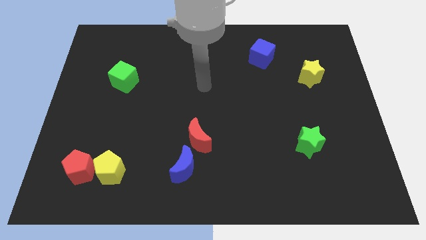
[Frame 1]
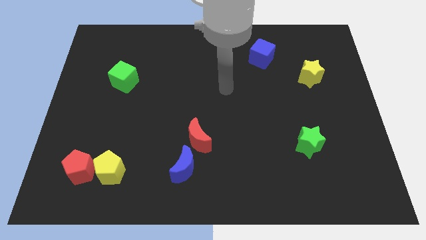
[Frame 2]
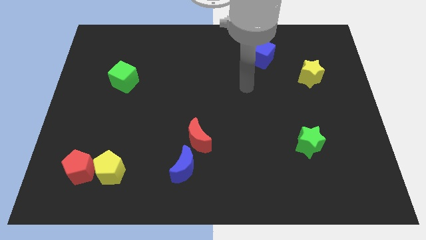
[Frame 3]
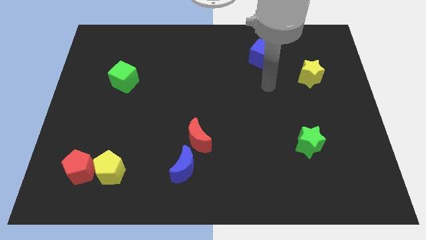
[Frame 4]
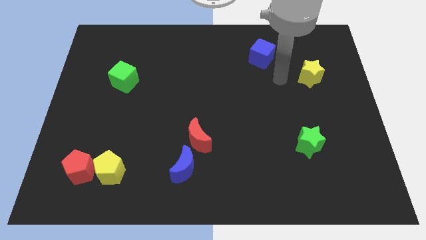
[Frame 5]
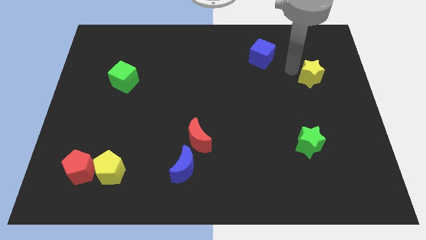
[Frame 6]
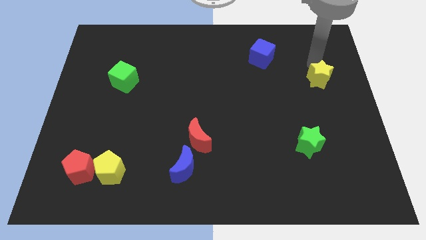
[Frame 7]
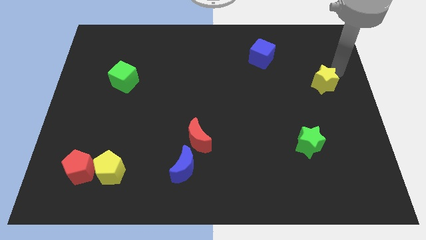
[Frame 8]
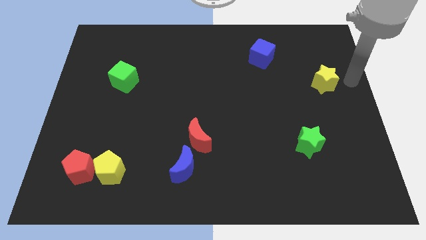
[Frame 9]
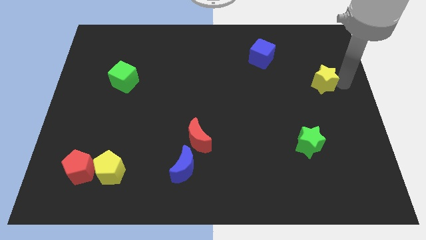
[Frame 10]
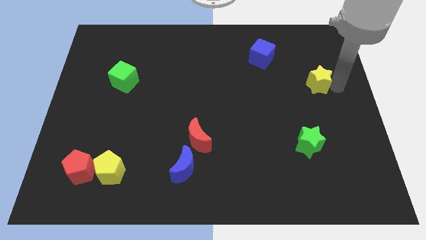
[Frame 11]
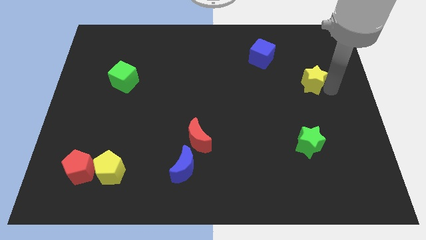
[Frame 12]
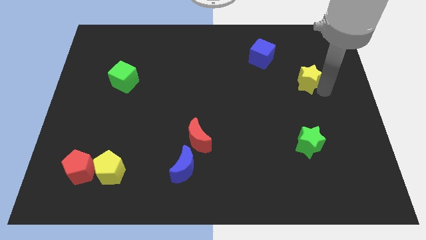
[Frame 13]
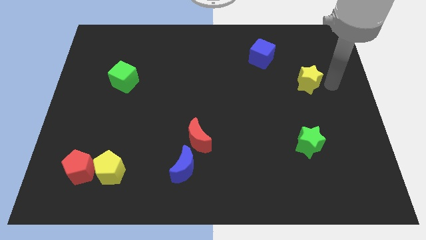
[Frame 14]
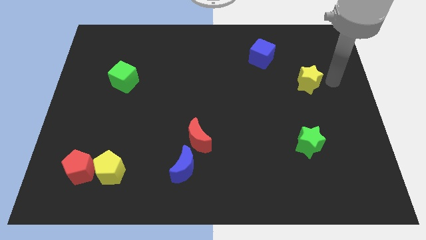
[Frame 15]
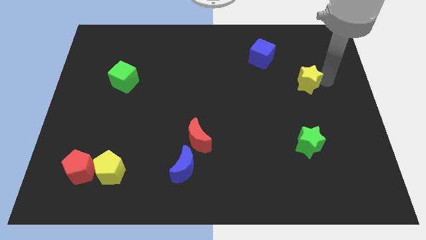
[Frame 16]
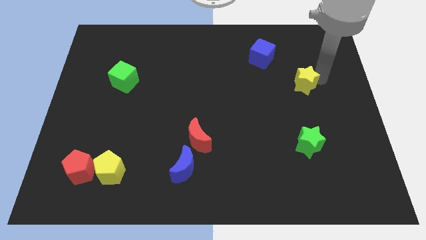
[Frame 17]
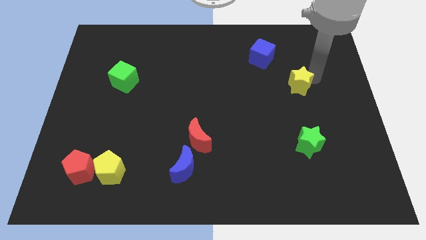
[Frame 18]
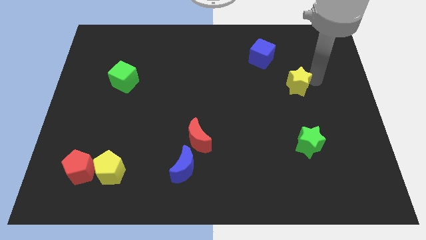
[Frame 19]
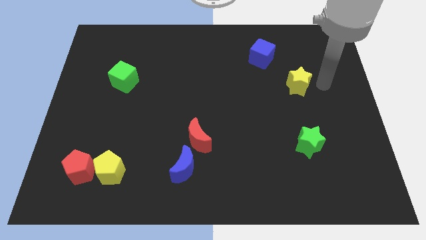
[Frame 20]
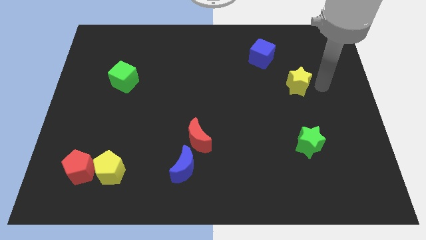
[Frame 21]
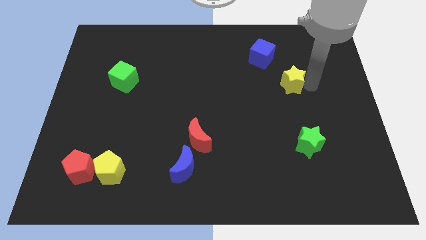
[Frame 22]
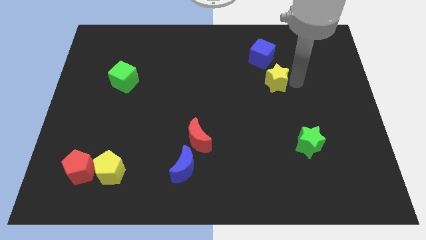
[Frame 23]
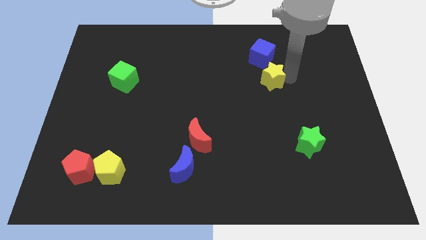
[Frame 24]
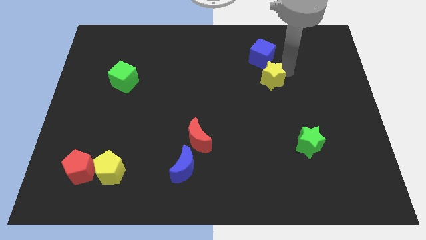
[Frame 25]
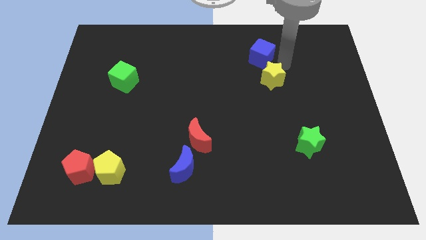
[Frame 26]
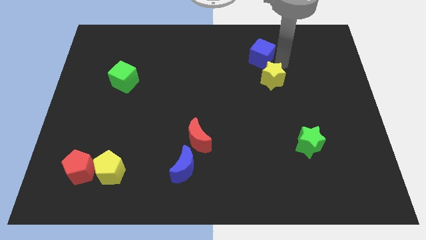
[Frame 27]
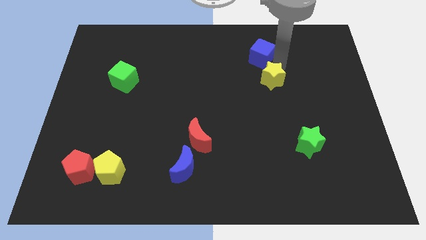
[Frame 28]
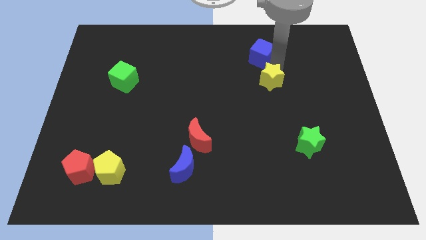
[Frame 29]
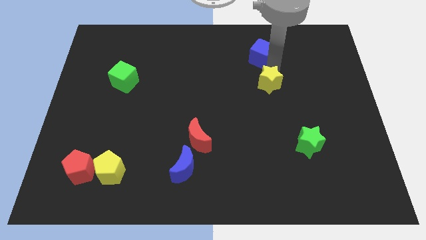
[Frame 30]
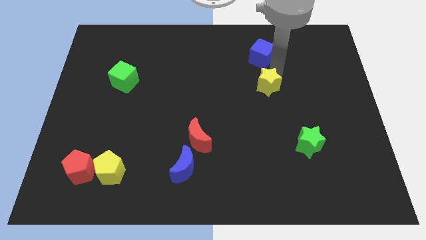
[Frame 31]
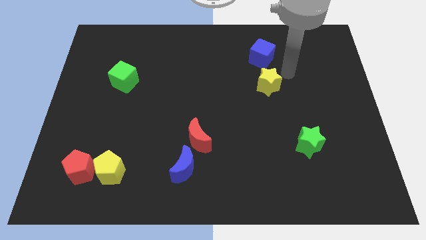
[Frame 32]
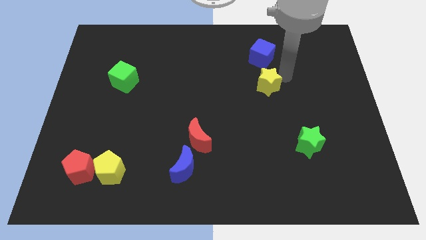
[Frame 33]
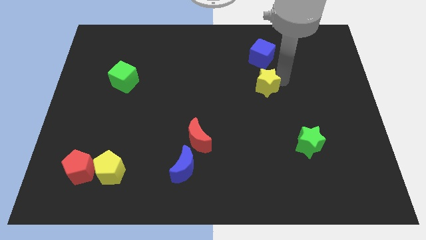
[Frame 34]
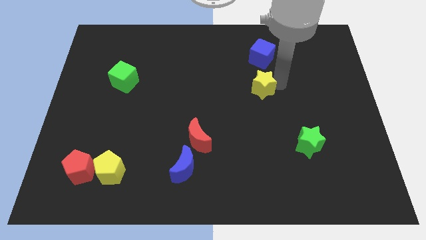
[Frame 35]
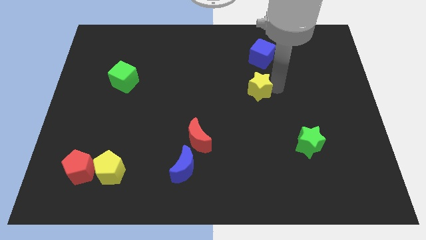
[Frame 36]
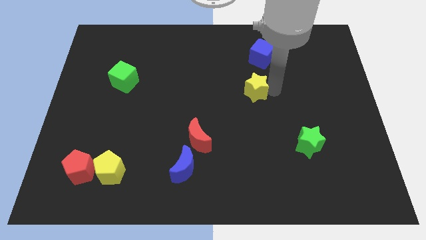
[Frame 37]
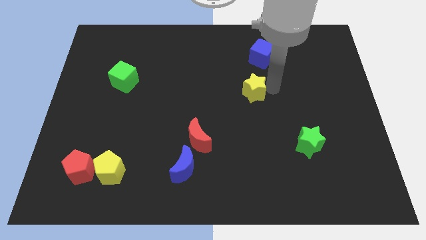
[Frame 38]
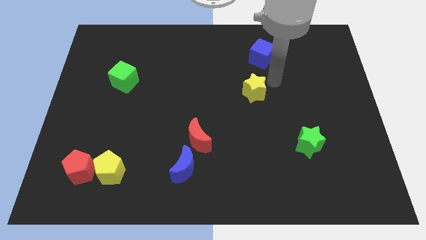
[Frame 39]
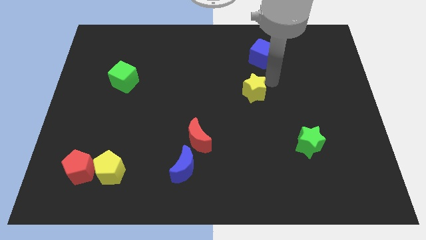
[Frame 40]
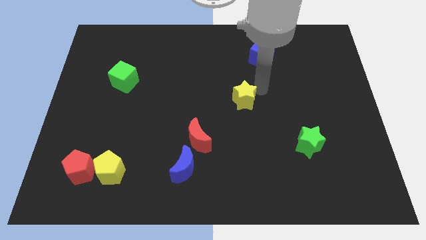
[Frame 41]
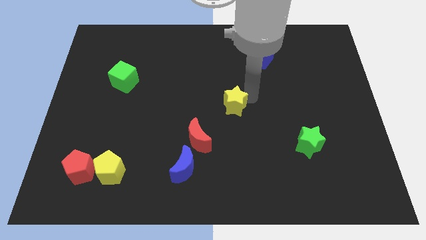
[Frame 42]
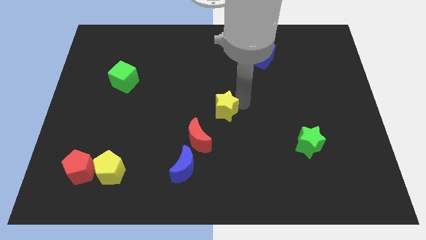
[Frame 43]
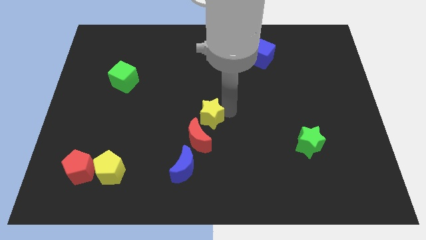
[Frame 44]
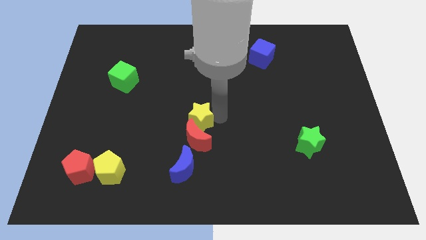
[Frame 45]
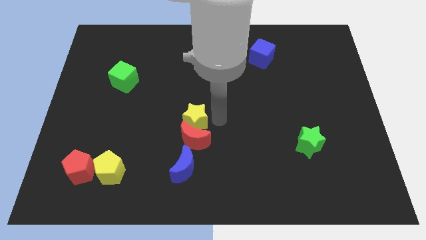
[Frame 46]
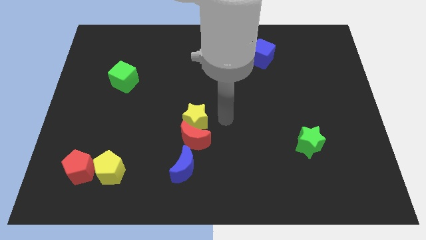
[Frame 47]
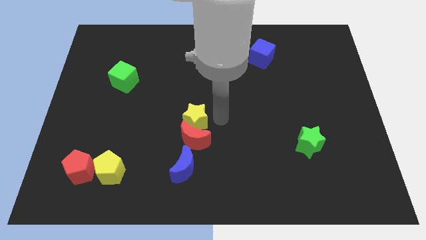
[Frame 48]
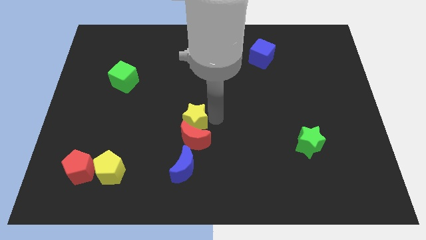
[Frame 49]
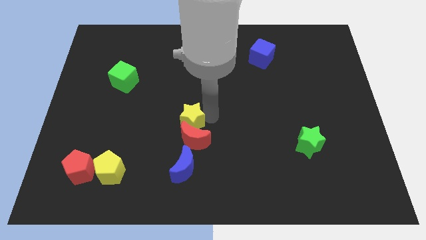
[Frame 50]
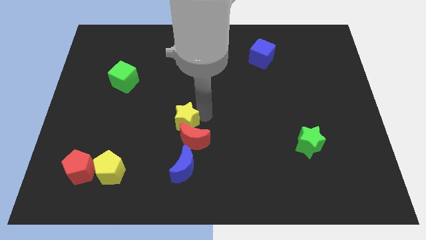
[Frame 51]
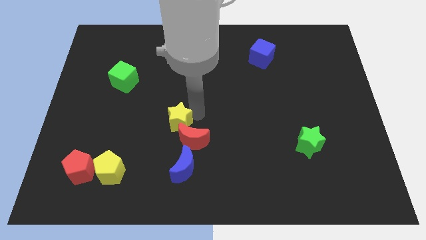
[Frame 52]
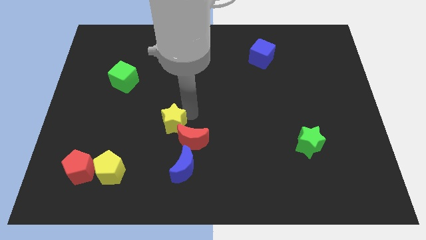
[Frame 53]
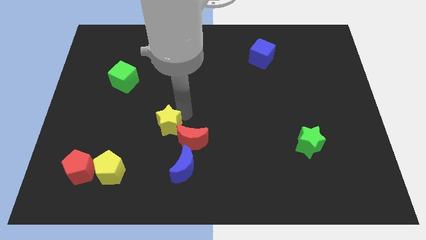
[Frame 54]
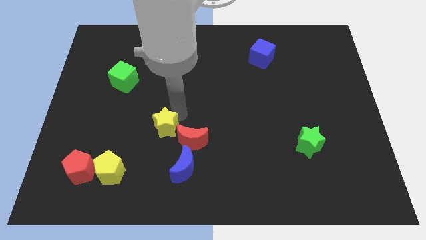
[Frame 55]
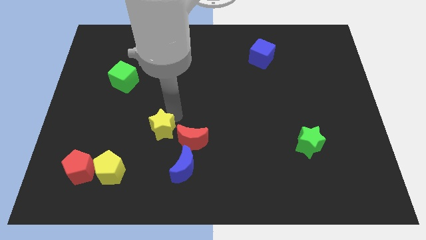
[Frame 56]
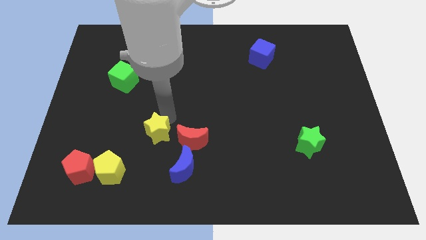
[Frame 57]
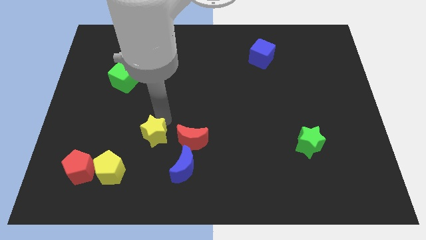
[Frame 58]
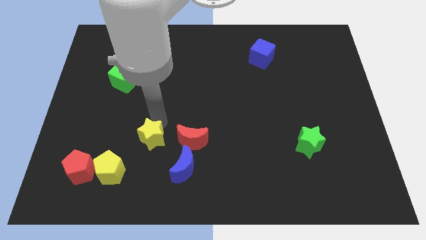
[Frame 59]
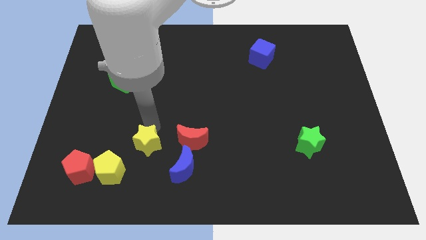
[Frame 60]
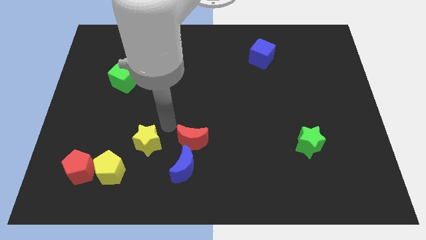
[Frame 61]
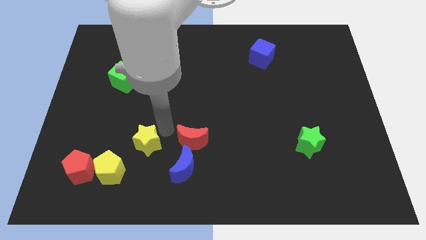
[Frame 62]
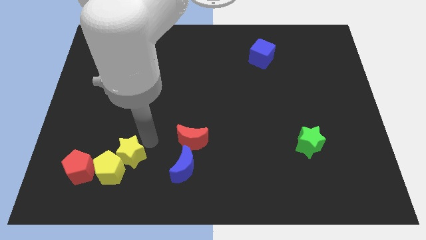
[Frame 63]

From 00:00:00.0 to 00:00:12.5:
move the yellow star next to the yellow pentagon

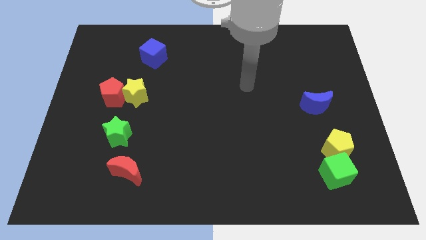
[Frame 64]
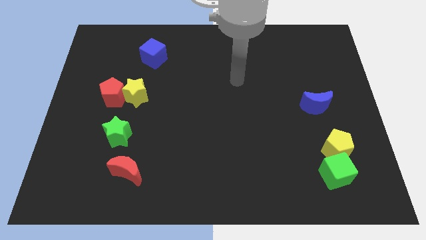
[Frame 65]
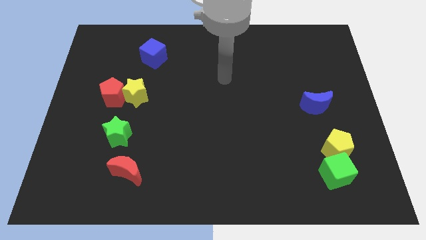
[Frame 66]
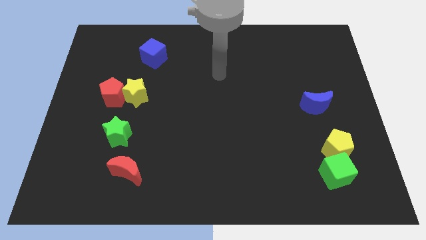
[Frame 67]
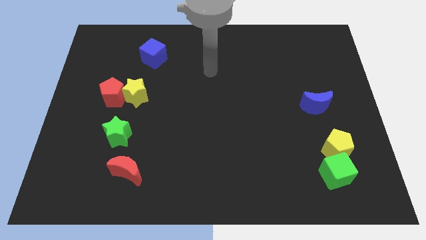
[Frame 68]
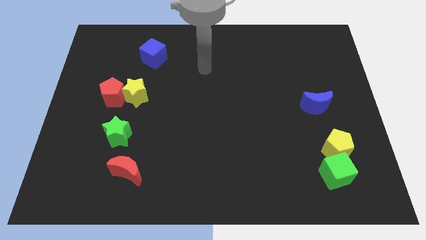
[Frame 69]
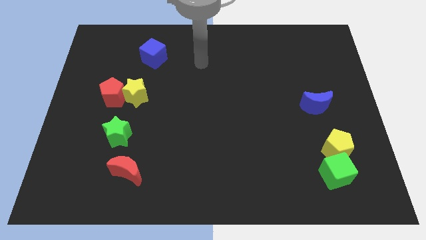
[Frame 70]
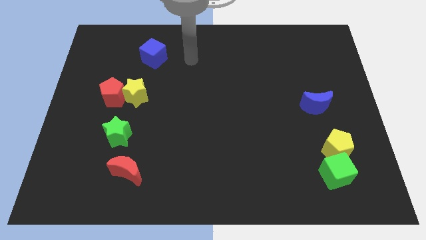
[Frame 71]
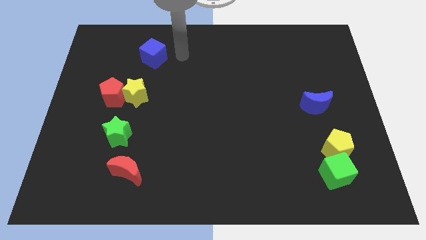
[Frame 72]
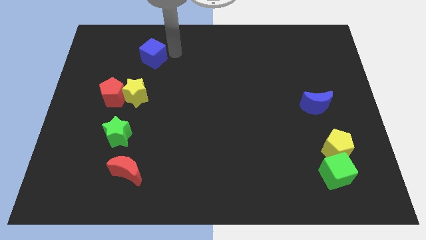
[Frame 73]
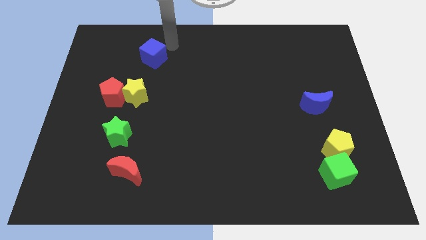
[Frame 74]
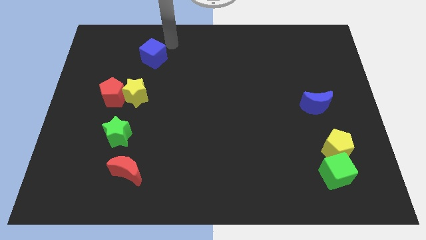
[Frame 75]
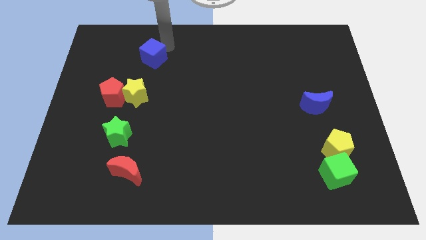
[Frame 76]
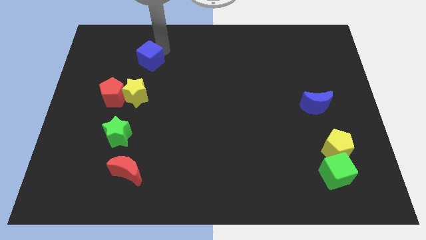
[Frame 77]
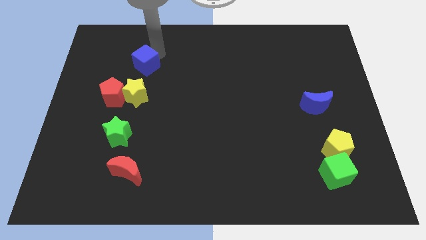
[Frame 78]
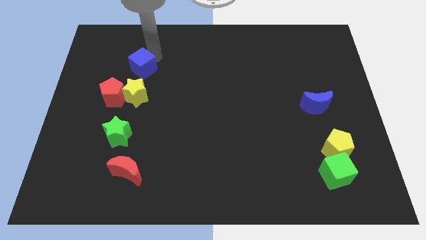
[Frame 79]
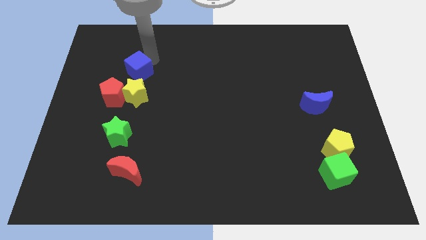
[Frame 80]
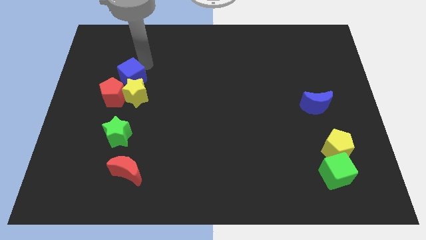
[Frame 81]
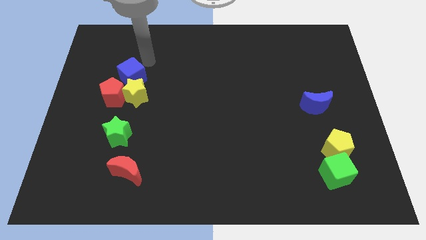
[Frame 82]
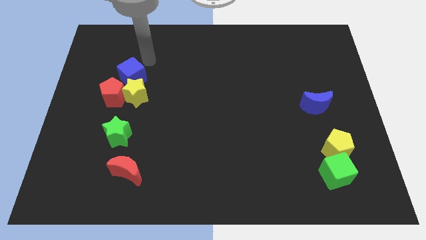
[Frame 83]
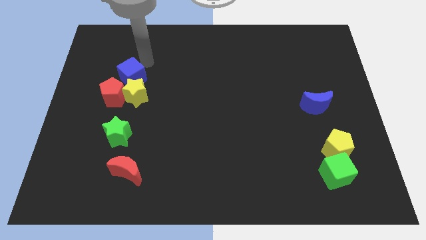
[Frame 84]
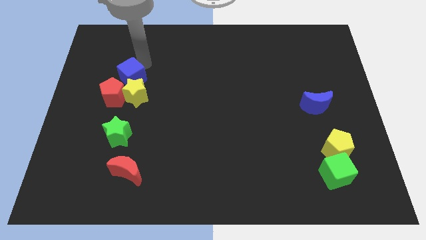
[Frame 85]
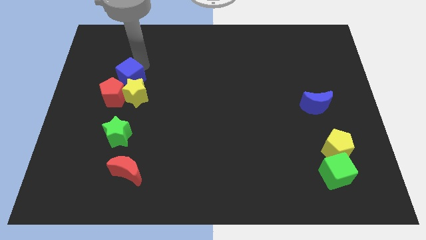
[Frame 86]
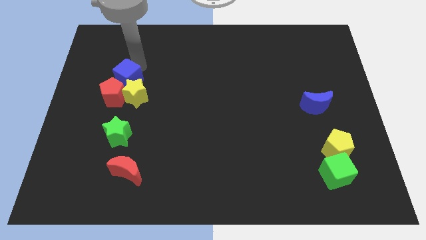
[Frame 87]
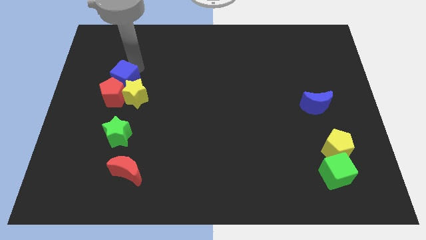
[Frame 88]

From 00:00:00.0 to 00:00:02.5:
put the blue cube towards the red pentagon
